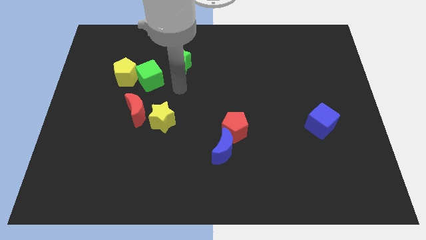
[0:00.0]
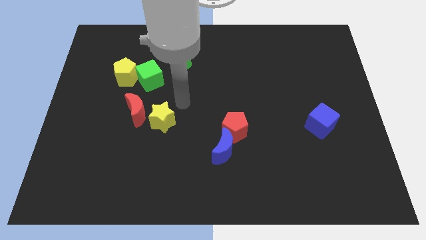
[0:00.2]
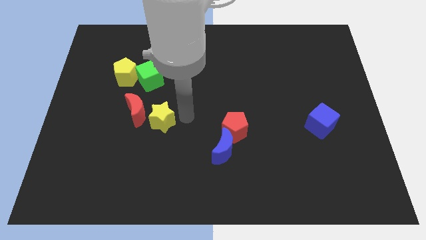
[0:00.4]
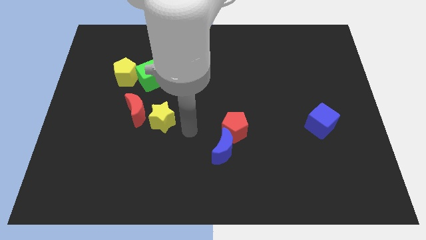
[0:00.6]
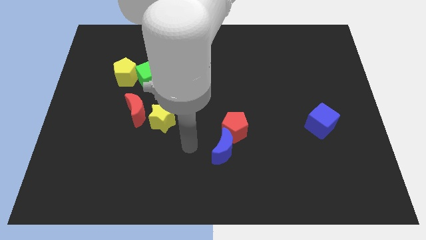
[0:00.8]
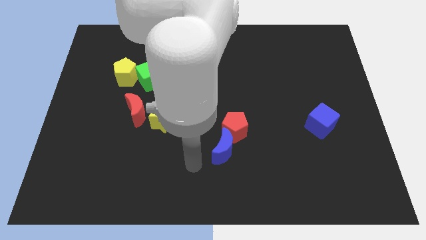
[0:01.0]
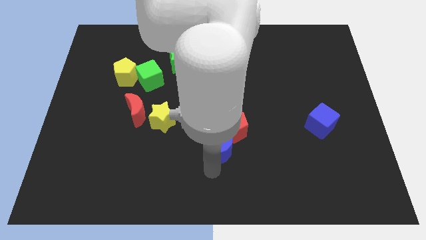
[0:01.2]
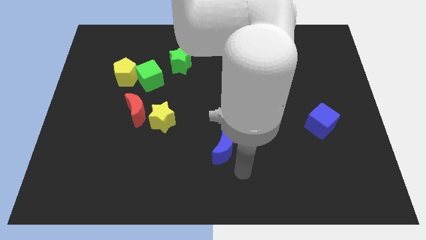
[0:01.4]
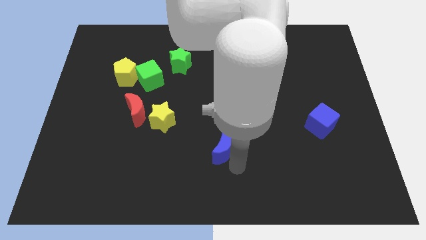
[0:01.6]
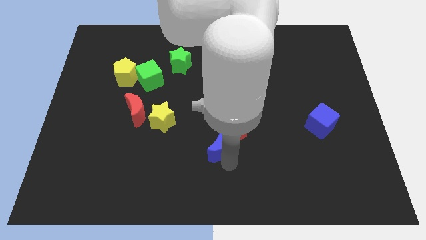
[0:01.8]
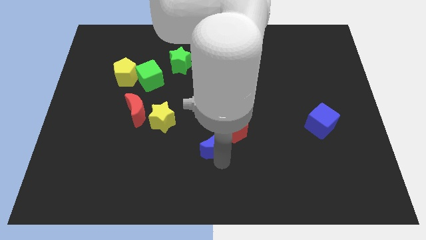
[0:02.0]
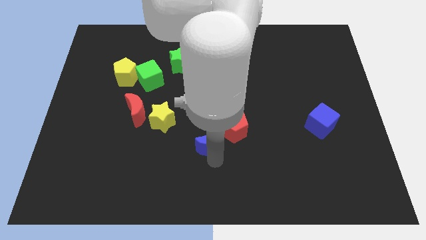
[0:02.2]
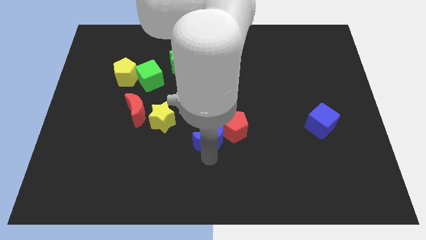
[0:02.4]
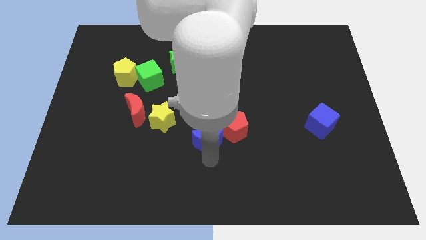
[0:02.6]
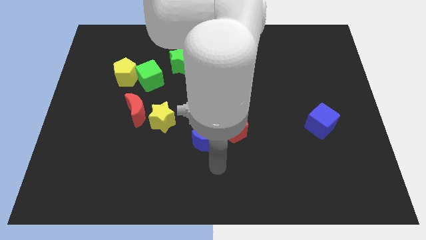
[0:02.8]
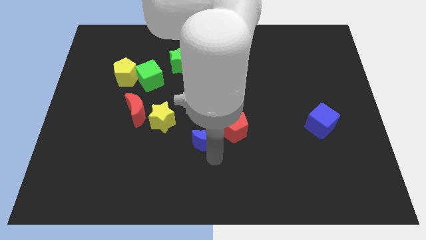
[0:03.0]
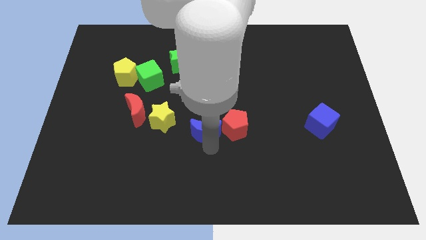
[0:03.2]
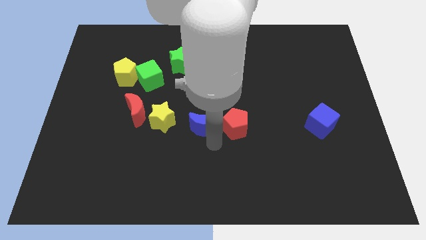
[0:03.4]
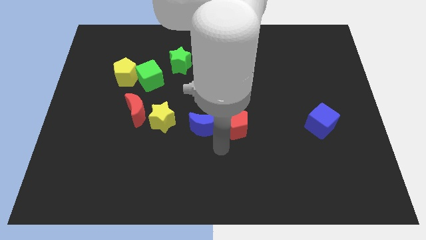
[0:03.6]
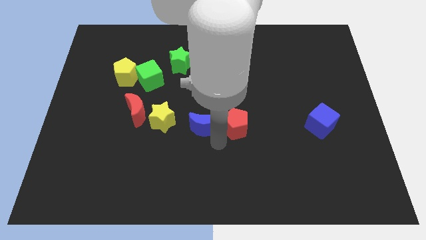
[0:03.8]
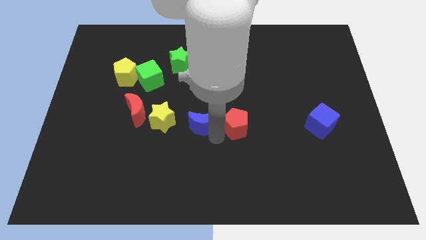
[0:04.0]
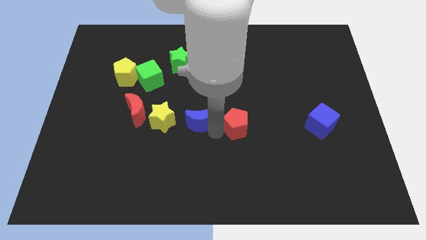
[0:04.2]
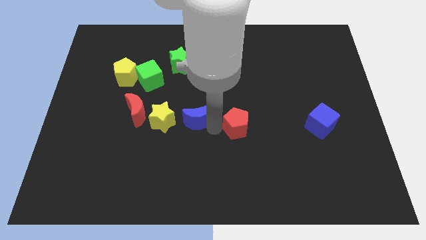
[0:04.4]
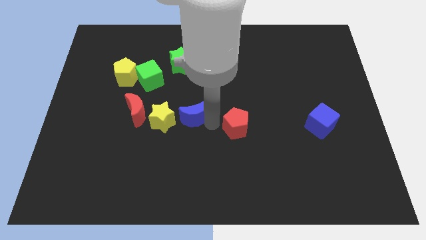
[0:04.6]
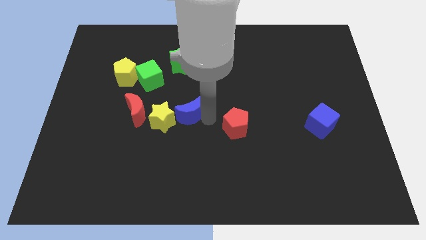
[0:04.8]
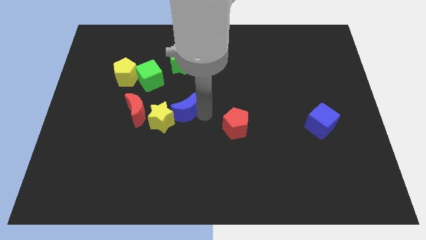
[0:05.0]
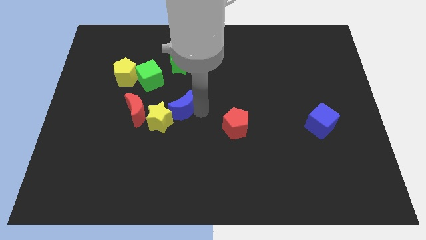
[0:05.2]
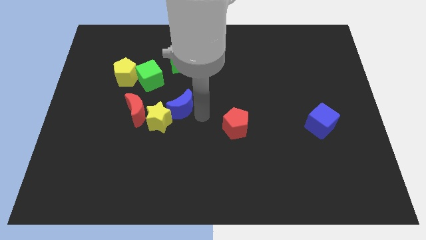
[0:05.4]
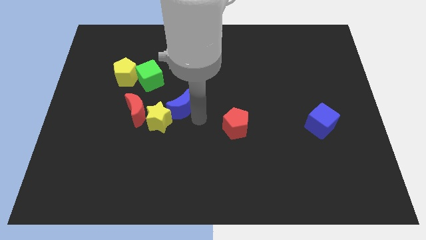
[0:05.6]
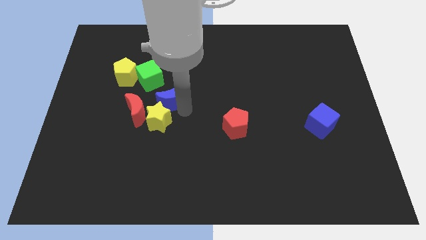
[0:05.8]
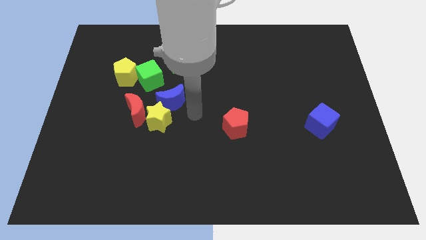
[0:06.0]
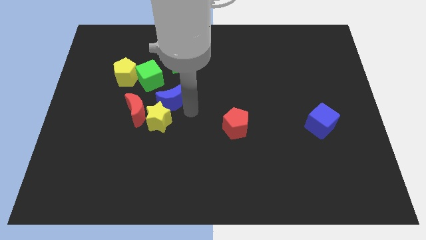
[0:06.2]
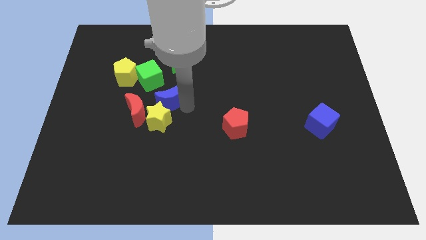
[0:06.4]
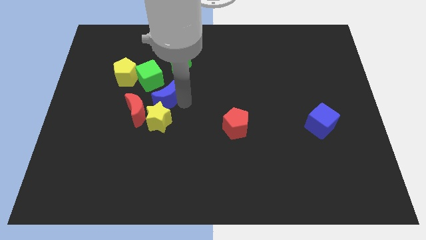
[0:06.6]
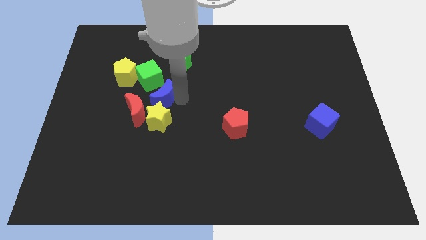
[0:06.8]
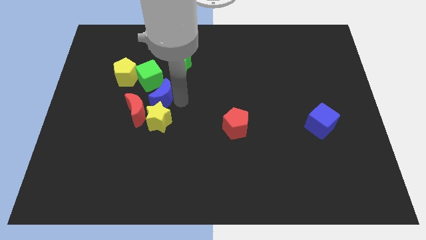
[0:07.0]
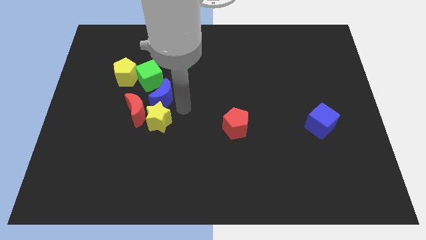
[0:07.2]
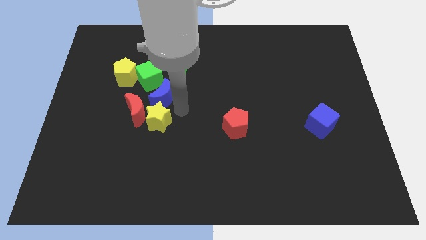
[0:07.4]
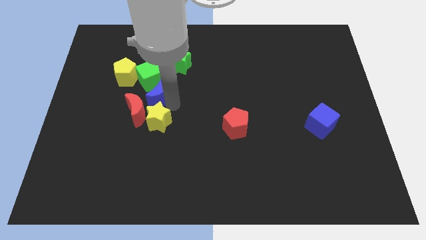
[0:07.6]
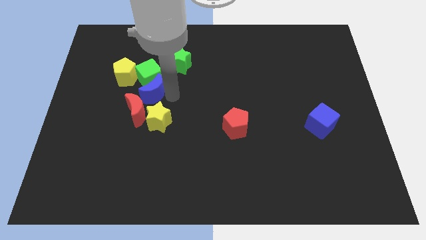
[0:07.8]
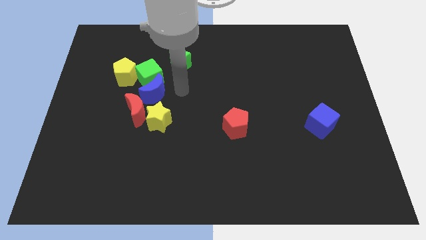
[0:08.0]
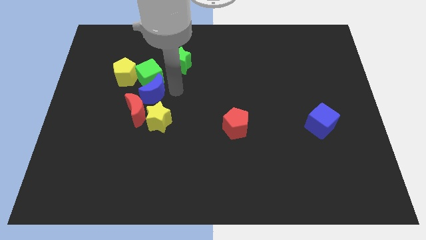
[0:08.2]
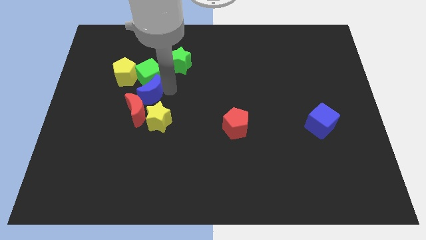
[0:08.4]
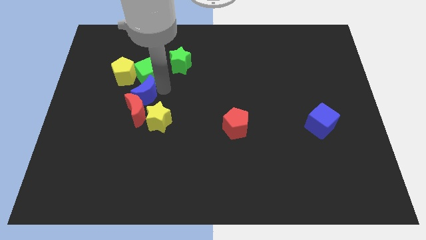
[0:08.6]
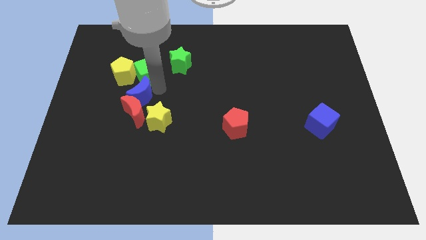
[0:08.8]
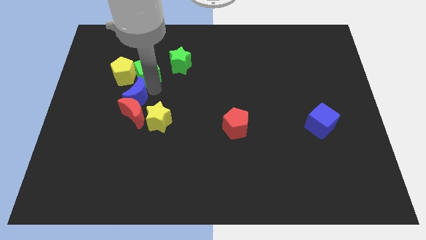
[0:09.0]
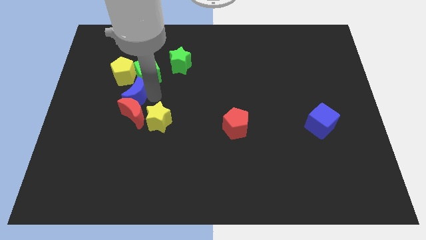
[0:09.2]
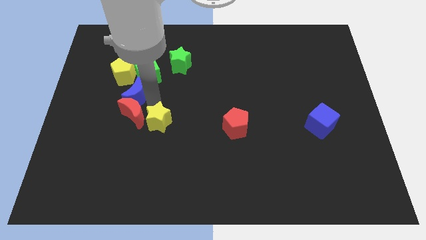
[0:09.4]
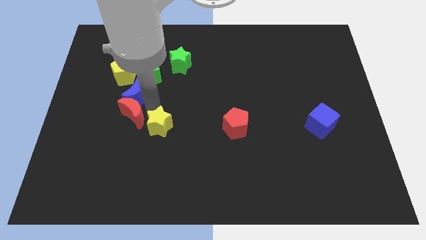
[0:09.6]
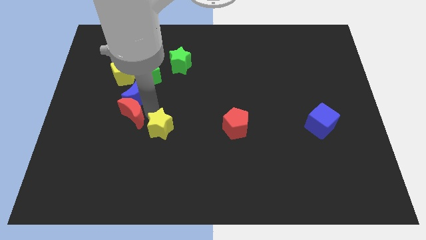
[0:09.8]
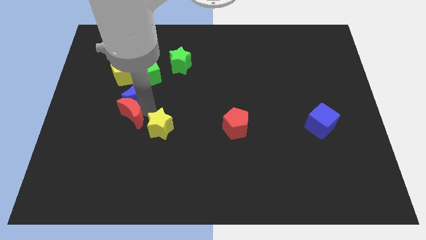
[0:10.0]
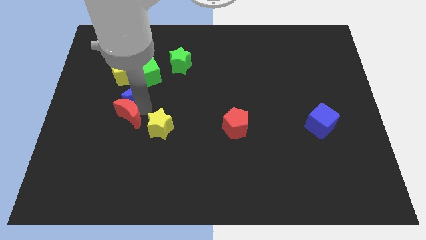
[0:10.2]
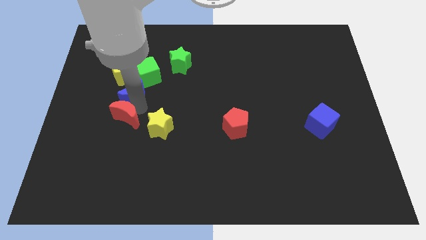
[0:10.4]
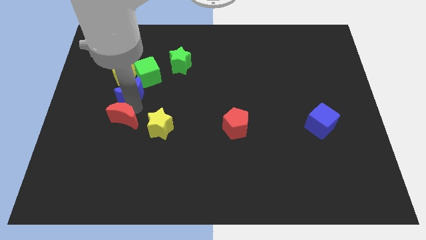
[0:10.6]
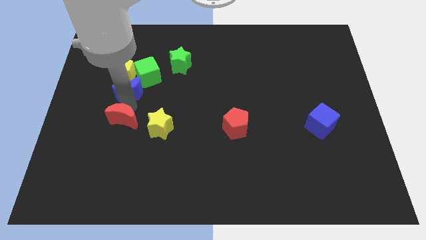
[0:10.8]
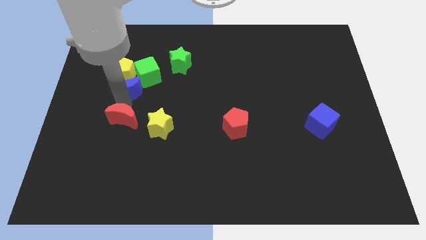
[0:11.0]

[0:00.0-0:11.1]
put the blue moon to the yellow pentagon

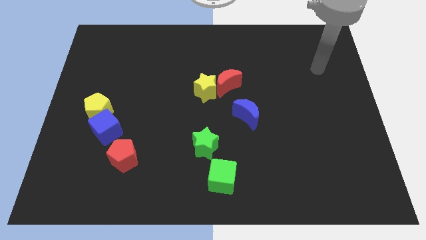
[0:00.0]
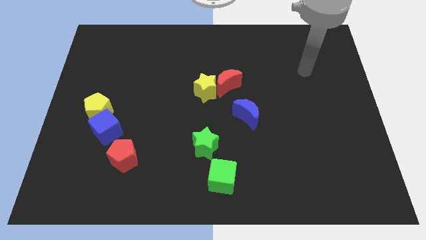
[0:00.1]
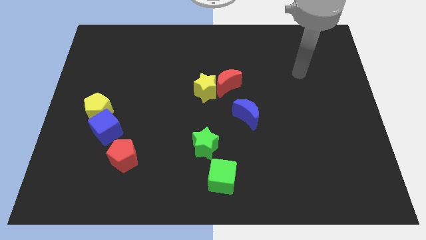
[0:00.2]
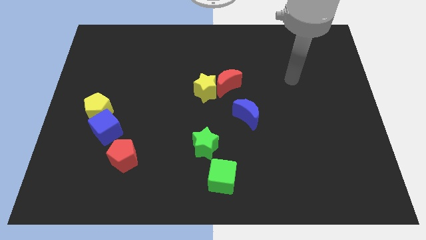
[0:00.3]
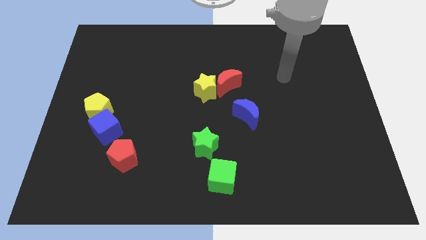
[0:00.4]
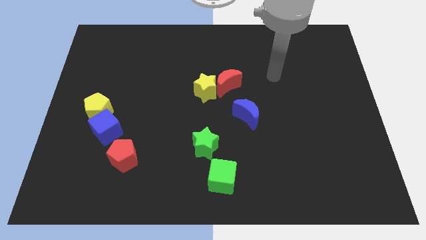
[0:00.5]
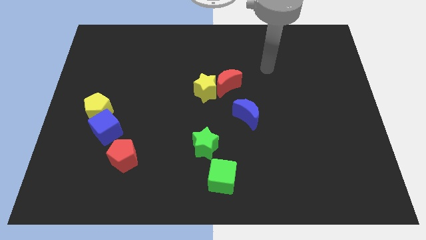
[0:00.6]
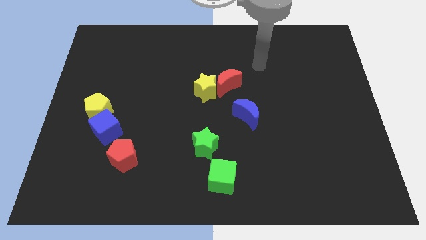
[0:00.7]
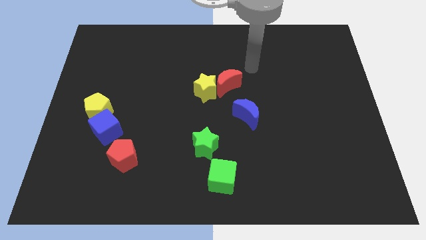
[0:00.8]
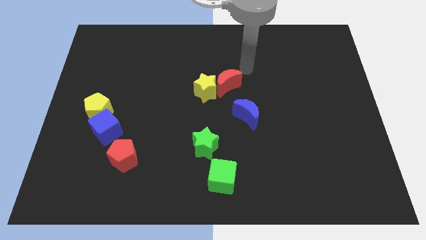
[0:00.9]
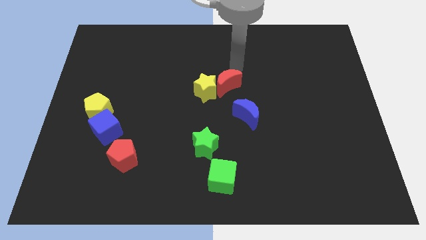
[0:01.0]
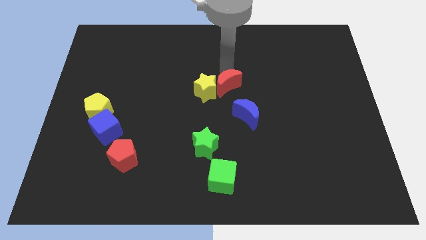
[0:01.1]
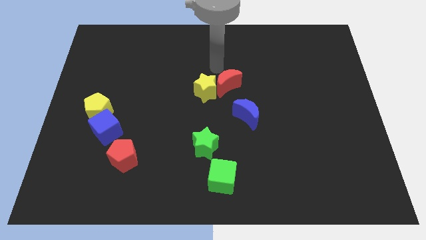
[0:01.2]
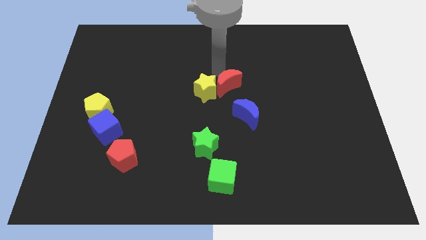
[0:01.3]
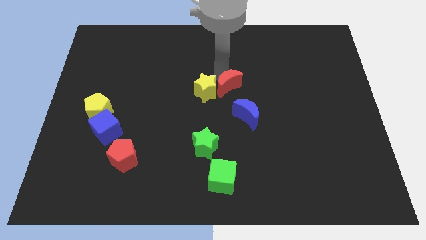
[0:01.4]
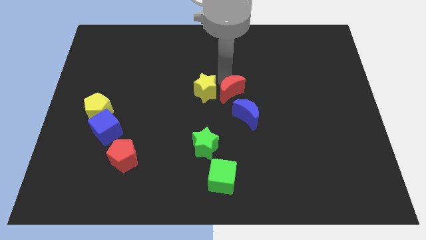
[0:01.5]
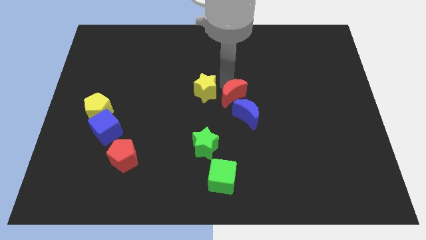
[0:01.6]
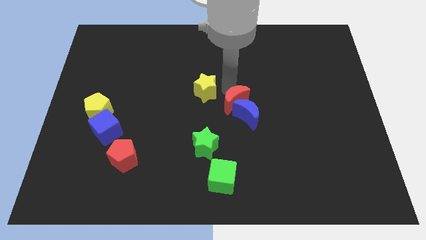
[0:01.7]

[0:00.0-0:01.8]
move the red moon to the blue moon
